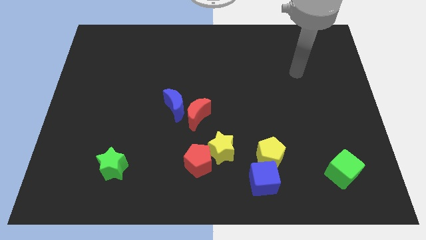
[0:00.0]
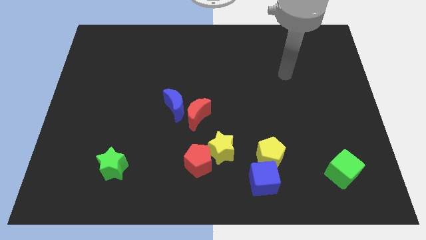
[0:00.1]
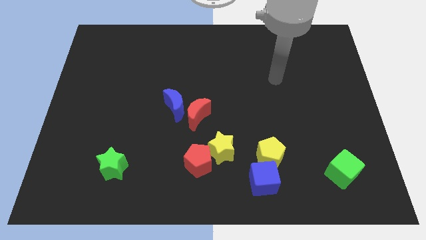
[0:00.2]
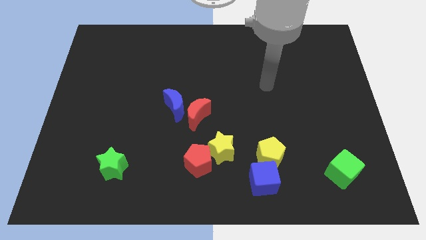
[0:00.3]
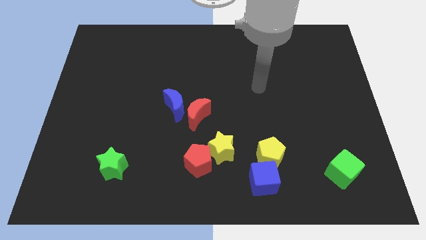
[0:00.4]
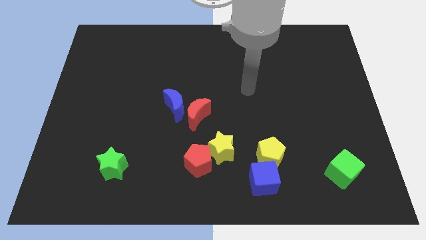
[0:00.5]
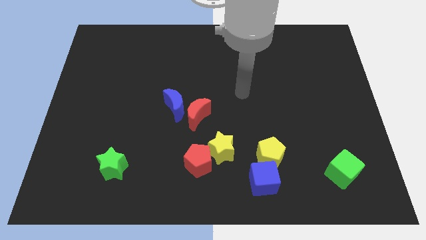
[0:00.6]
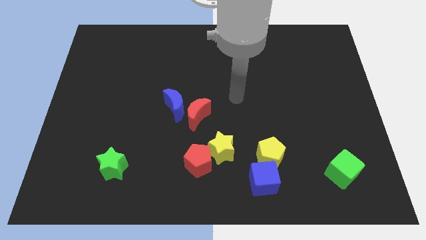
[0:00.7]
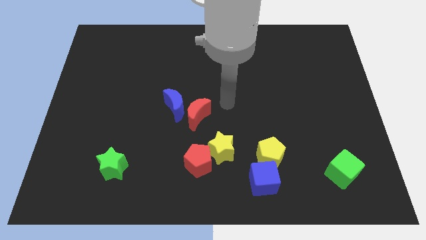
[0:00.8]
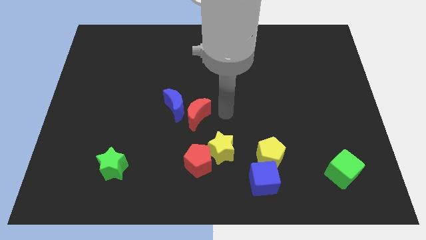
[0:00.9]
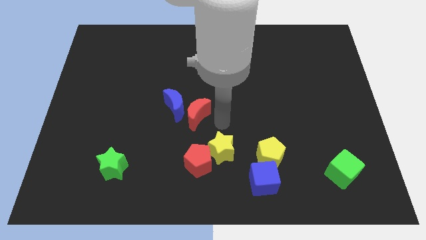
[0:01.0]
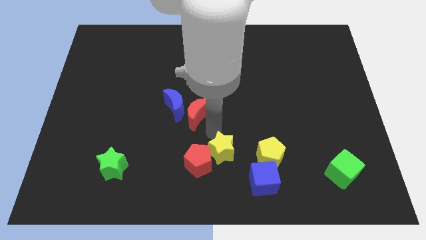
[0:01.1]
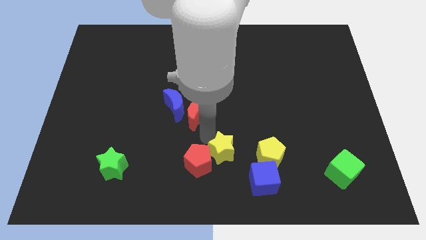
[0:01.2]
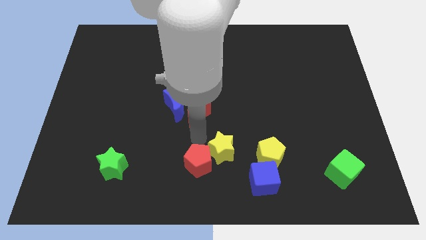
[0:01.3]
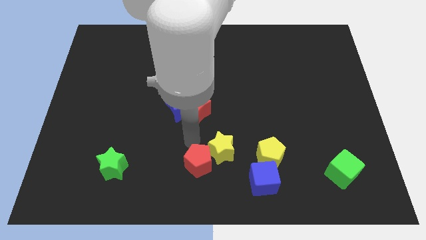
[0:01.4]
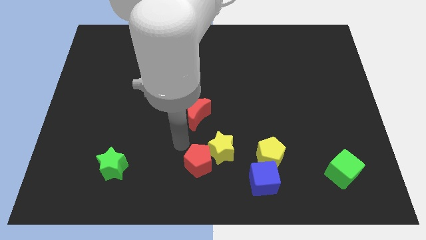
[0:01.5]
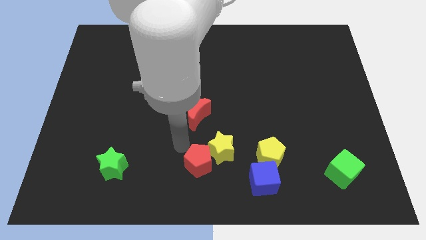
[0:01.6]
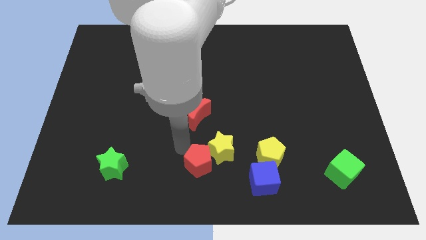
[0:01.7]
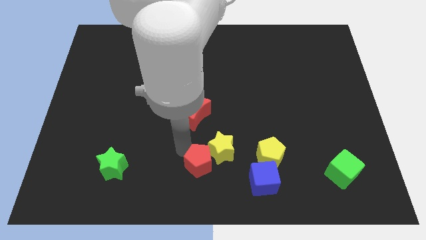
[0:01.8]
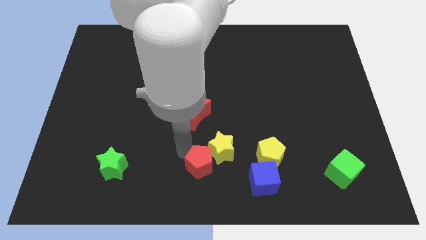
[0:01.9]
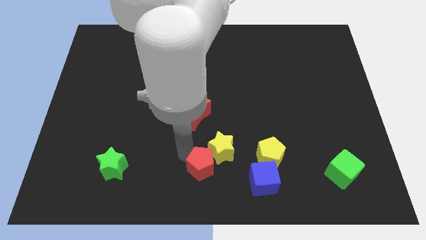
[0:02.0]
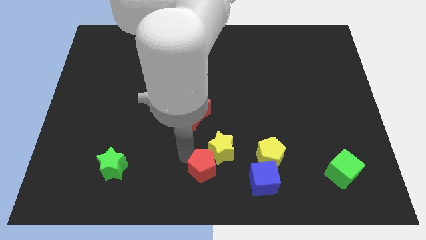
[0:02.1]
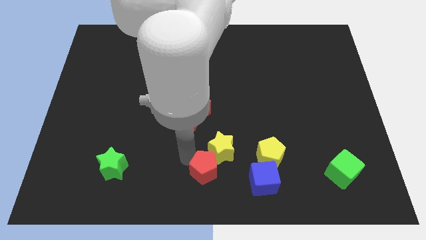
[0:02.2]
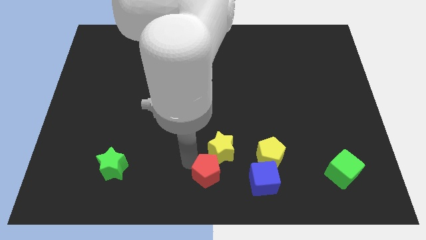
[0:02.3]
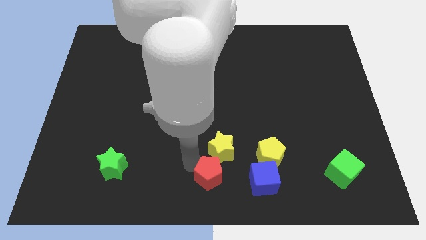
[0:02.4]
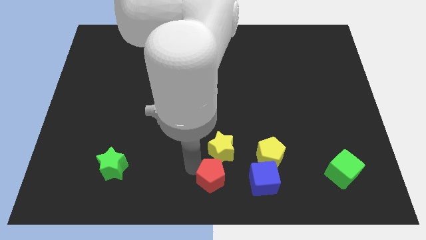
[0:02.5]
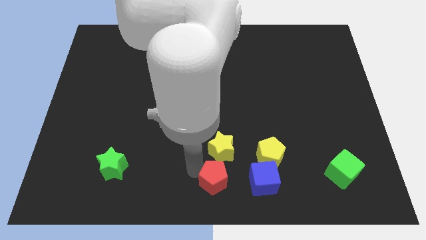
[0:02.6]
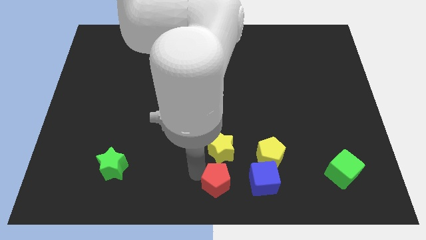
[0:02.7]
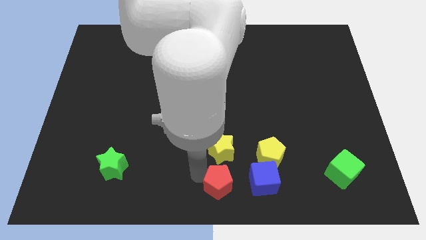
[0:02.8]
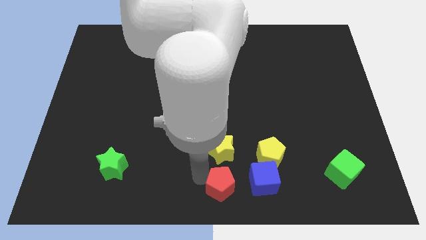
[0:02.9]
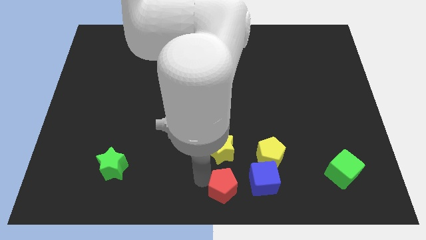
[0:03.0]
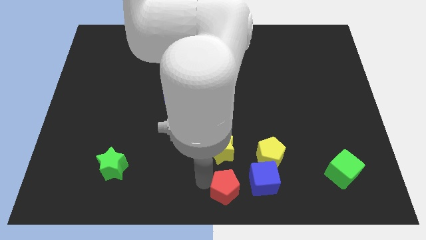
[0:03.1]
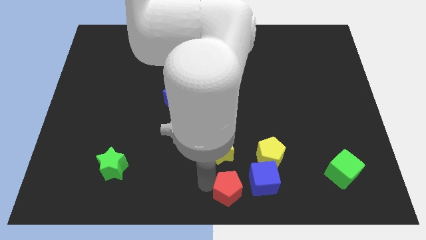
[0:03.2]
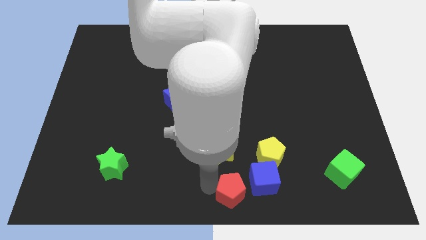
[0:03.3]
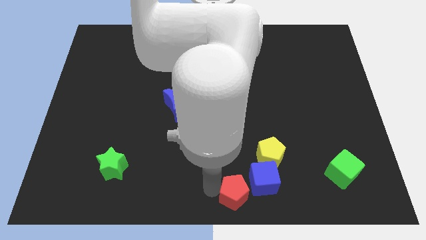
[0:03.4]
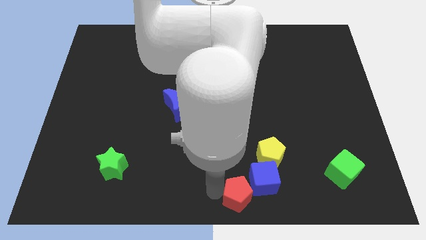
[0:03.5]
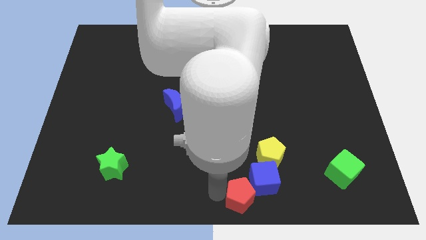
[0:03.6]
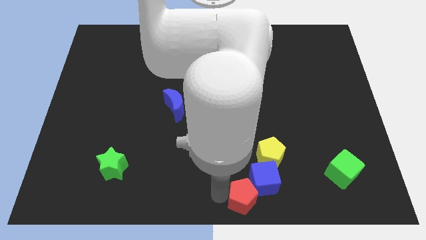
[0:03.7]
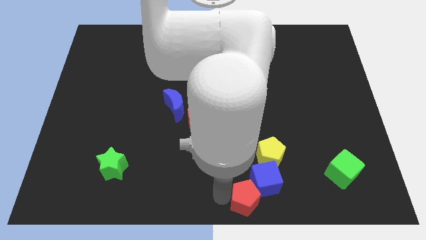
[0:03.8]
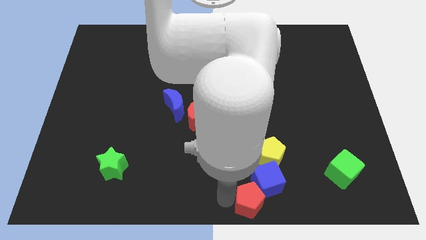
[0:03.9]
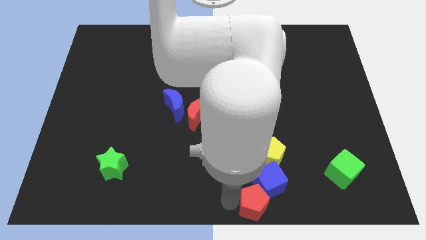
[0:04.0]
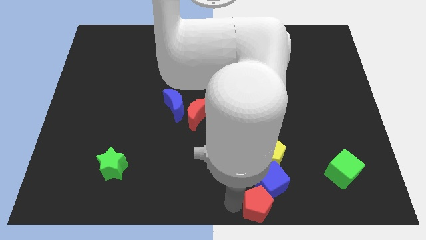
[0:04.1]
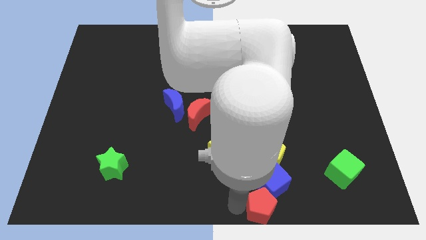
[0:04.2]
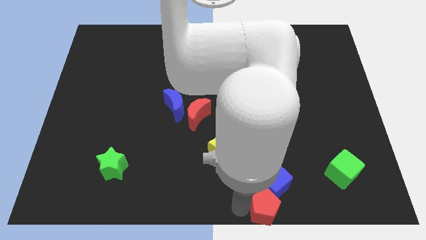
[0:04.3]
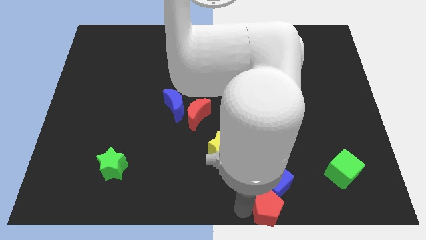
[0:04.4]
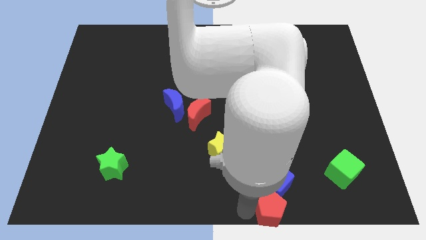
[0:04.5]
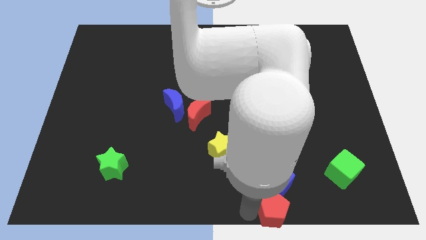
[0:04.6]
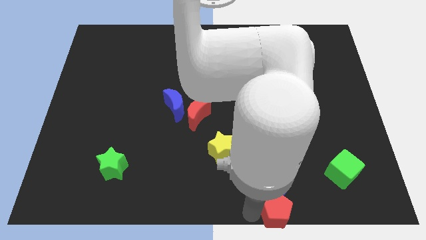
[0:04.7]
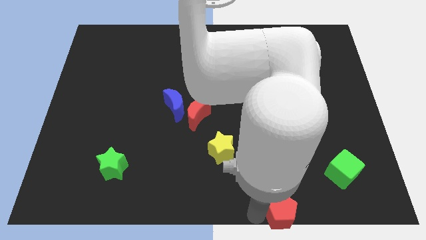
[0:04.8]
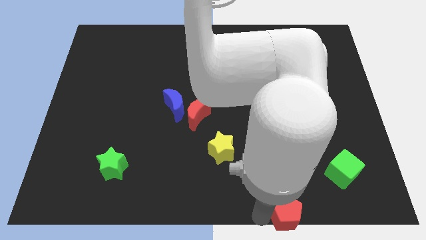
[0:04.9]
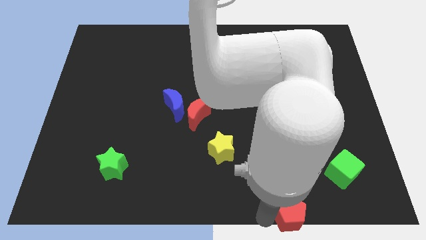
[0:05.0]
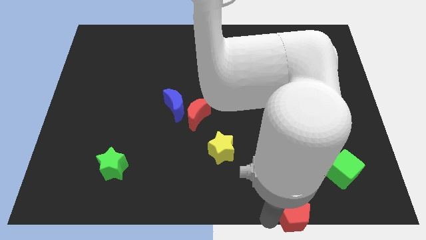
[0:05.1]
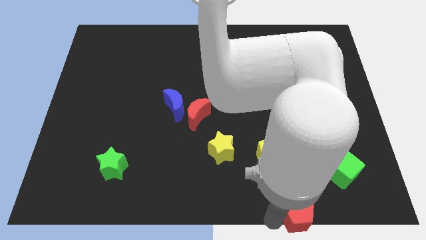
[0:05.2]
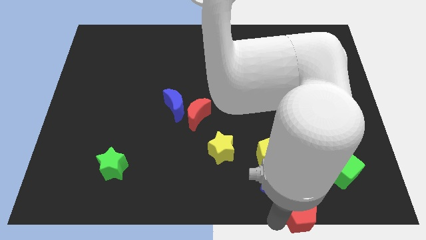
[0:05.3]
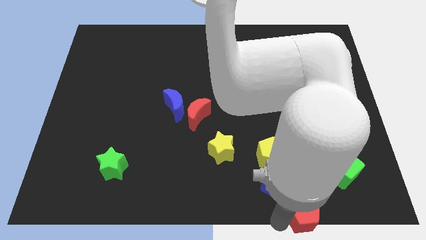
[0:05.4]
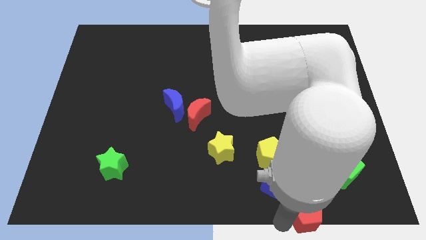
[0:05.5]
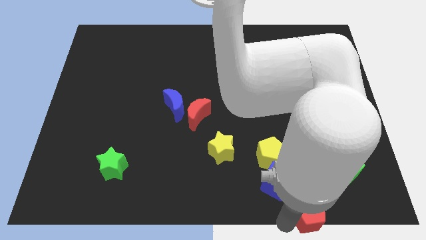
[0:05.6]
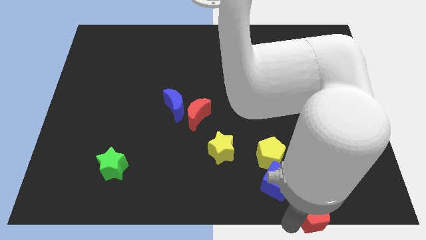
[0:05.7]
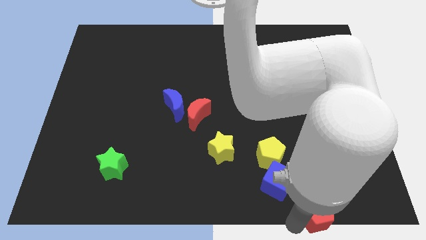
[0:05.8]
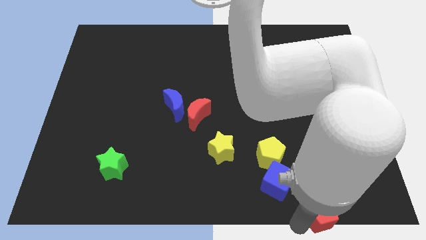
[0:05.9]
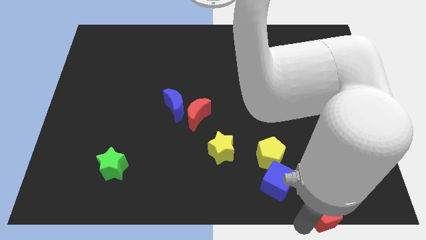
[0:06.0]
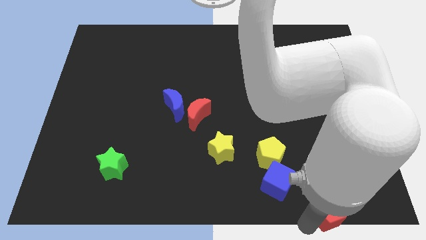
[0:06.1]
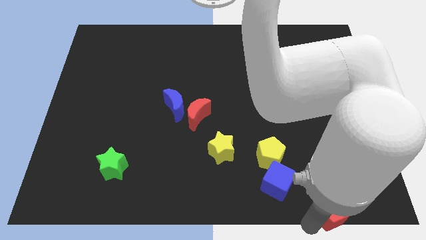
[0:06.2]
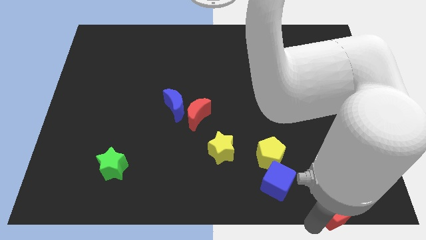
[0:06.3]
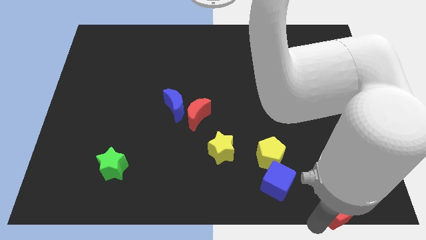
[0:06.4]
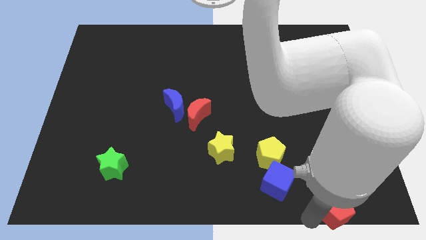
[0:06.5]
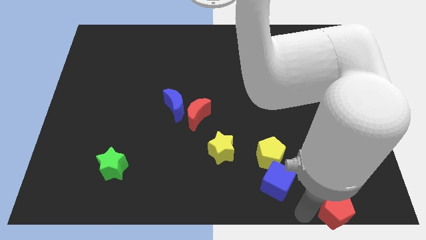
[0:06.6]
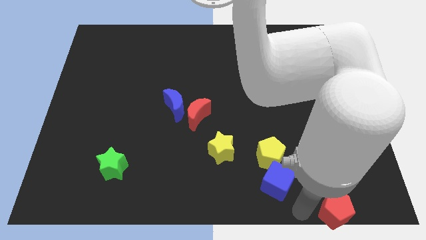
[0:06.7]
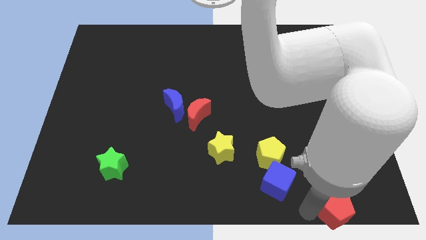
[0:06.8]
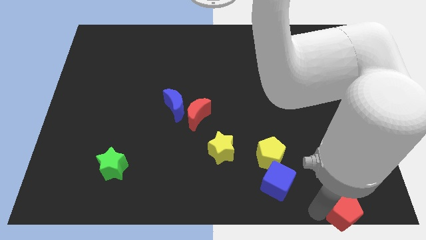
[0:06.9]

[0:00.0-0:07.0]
push the red pentagon to the lower right corner

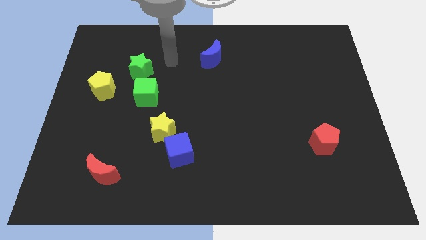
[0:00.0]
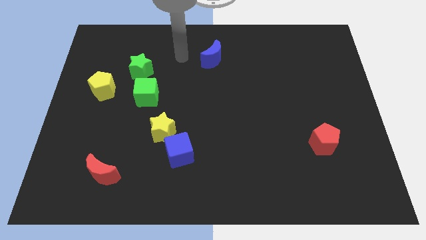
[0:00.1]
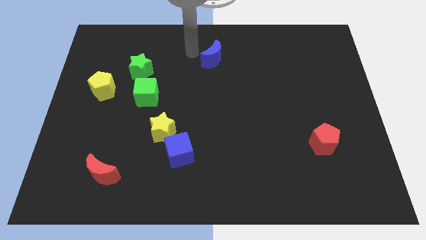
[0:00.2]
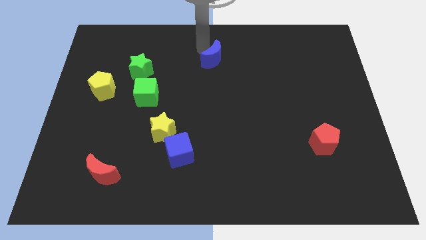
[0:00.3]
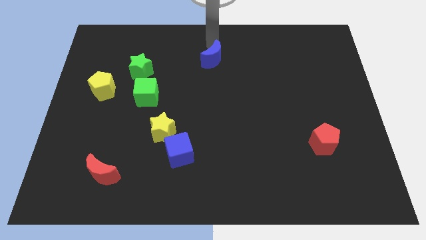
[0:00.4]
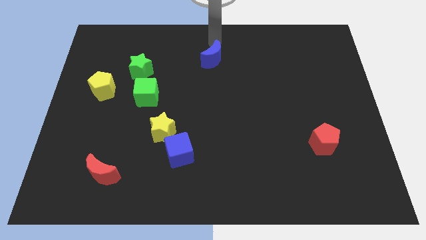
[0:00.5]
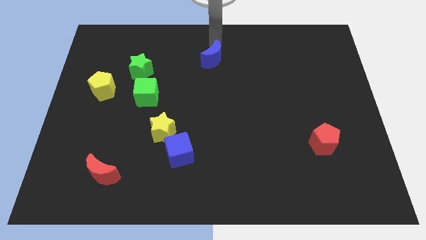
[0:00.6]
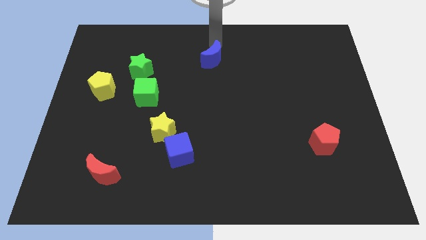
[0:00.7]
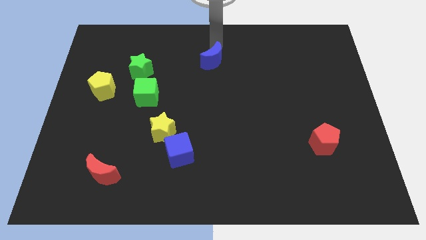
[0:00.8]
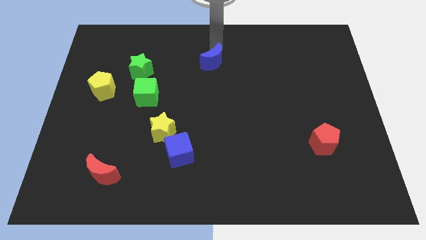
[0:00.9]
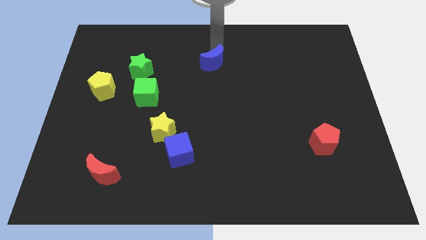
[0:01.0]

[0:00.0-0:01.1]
push the blue moon to the middle of the board
